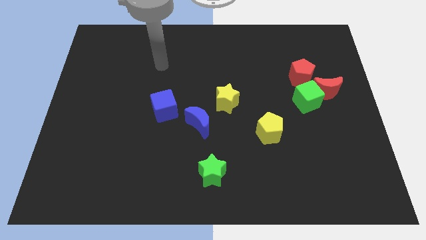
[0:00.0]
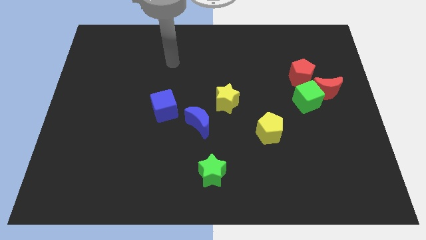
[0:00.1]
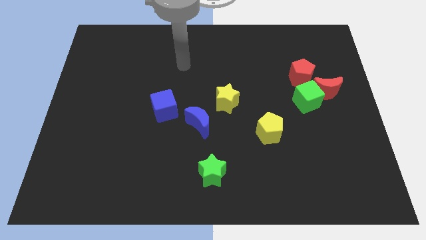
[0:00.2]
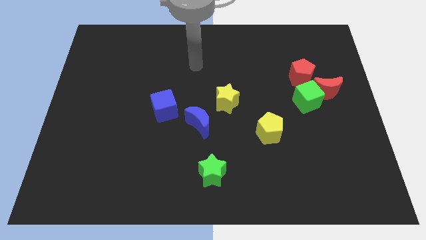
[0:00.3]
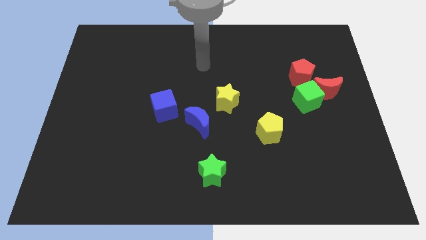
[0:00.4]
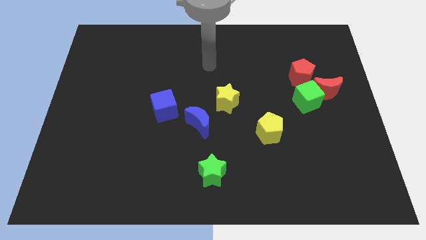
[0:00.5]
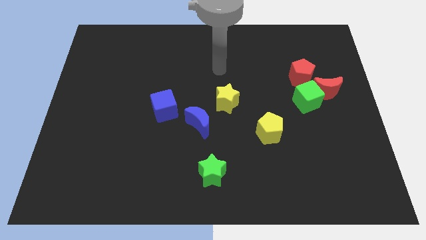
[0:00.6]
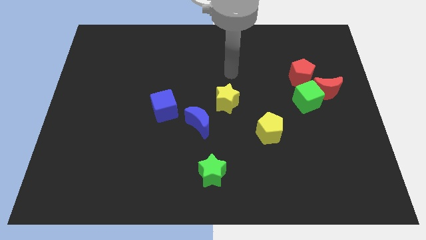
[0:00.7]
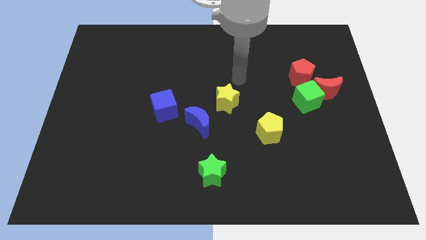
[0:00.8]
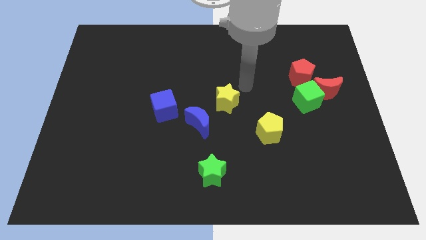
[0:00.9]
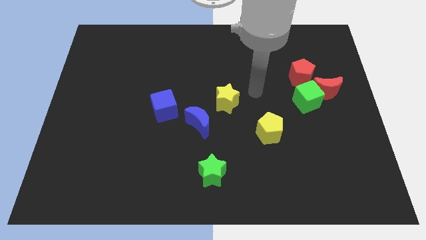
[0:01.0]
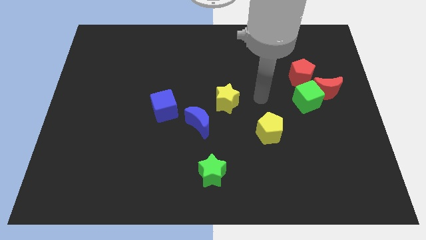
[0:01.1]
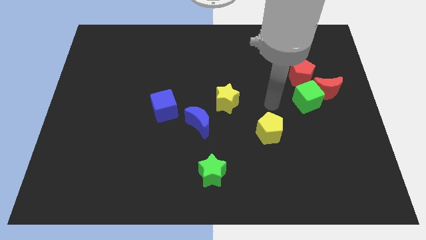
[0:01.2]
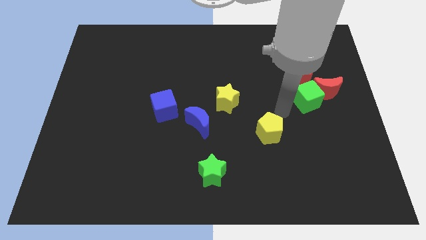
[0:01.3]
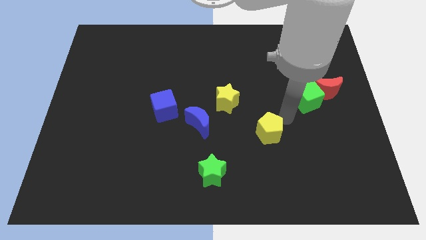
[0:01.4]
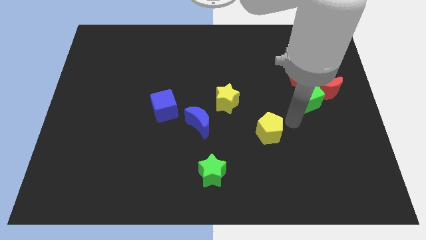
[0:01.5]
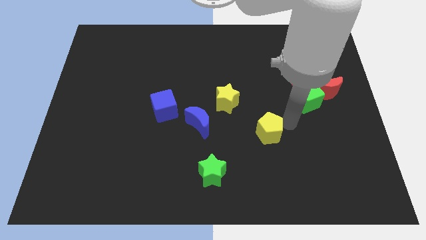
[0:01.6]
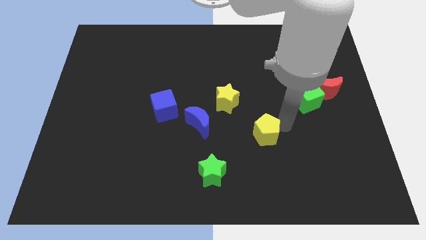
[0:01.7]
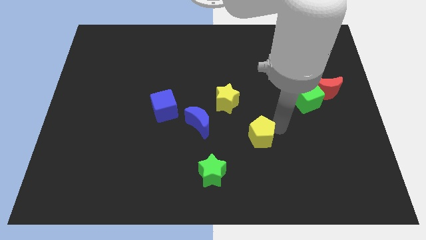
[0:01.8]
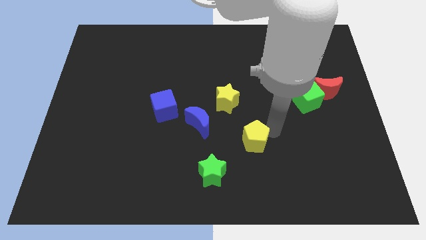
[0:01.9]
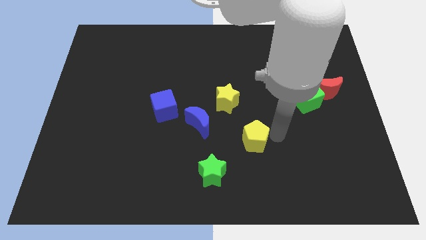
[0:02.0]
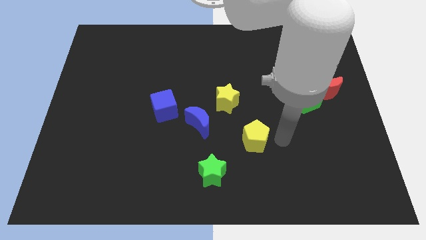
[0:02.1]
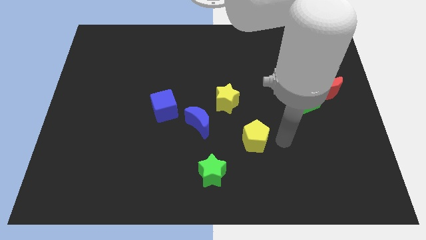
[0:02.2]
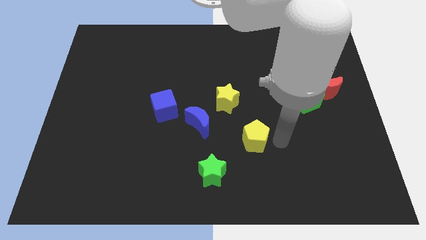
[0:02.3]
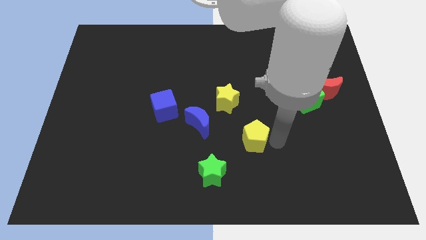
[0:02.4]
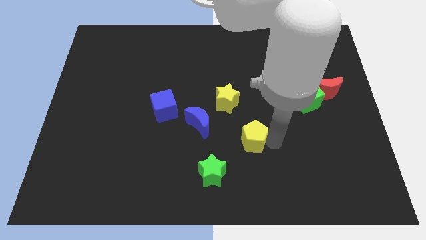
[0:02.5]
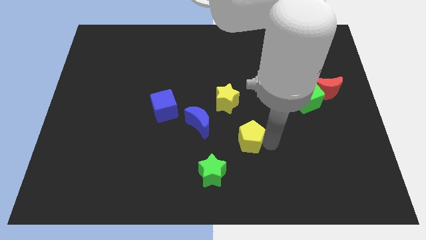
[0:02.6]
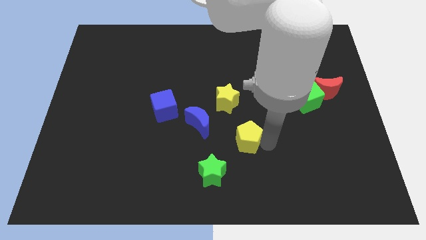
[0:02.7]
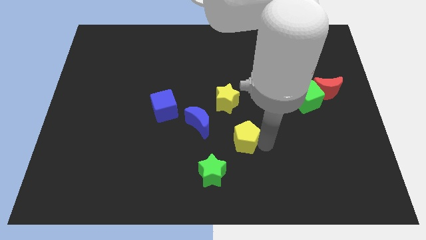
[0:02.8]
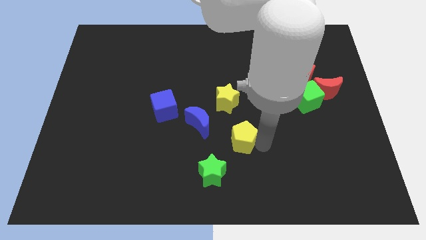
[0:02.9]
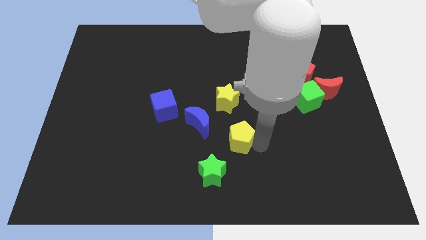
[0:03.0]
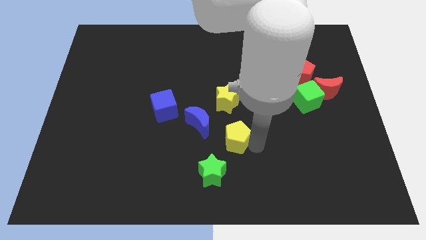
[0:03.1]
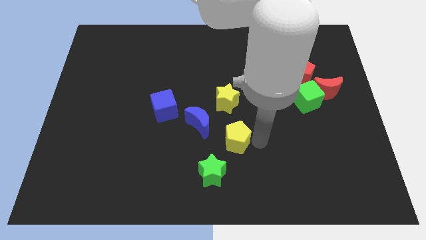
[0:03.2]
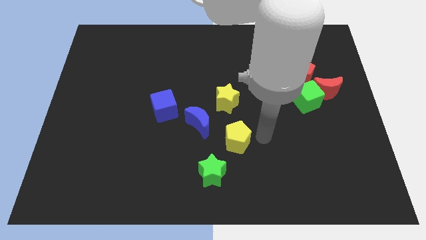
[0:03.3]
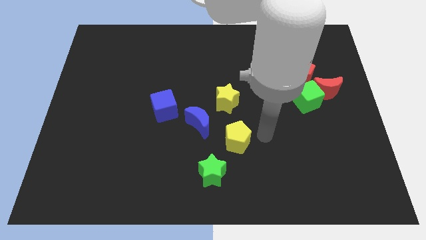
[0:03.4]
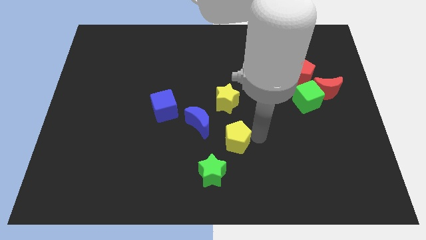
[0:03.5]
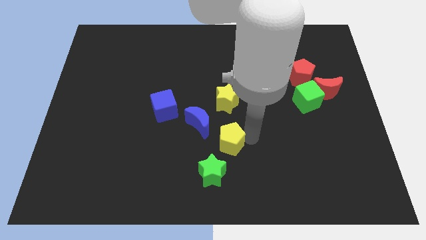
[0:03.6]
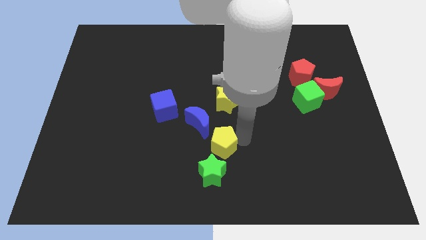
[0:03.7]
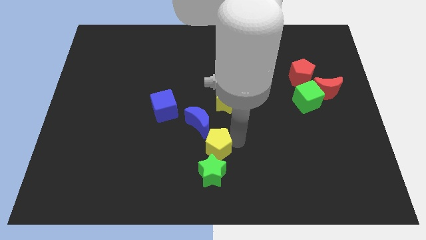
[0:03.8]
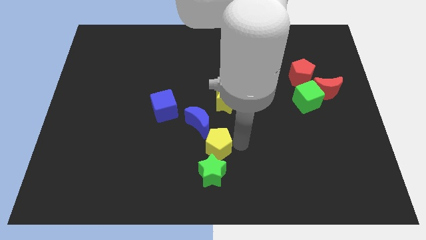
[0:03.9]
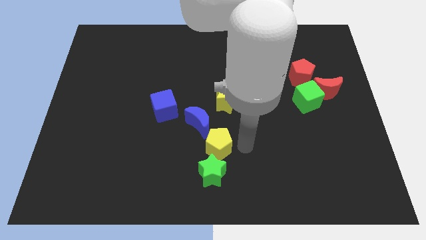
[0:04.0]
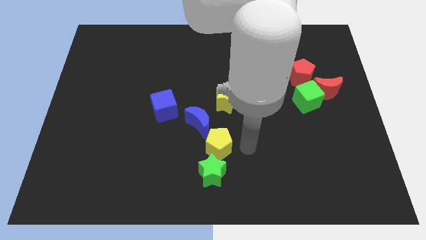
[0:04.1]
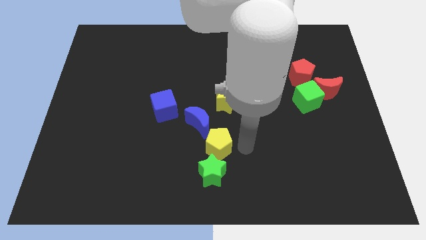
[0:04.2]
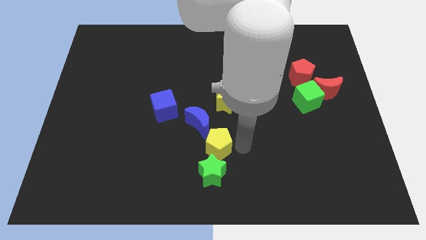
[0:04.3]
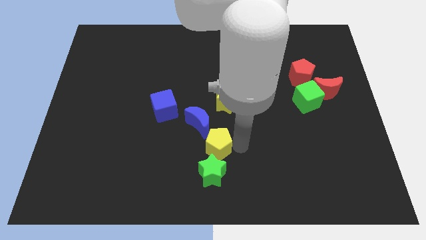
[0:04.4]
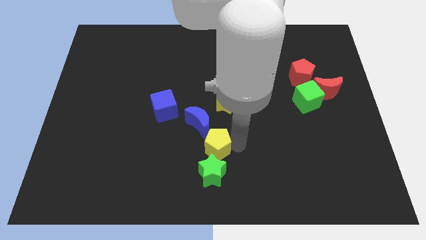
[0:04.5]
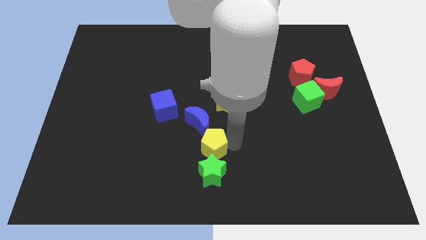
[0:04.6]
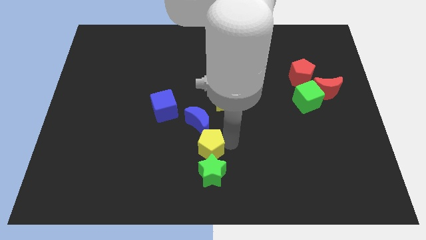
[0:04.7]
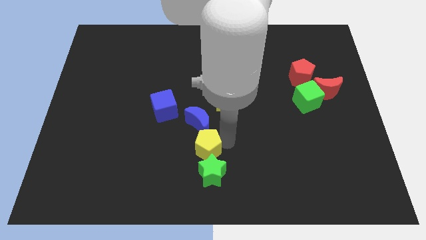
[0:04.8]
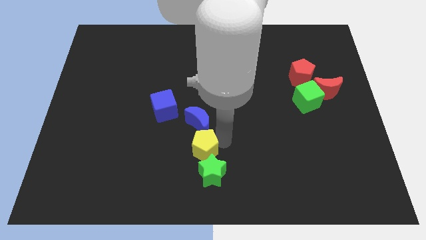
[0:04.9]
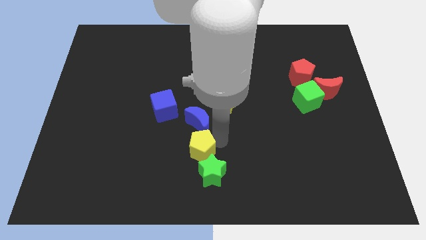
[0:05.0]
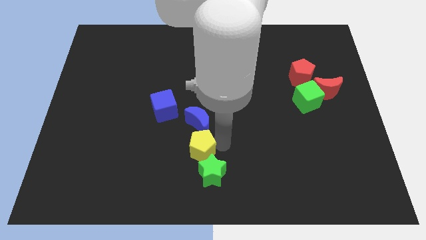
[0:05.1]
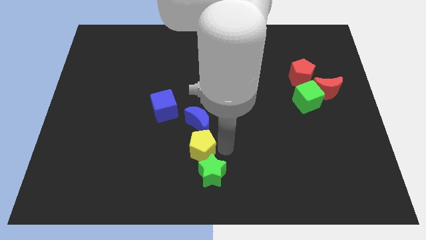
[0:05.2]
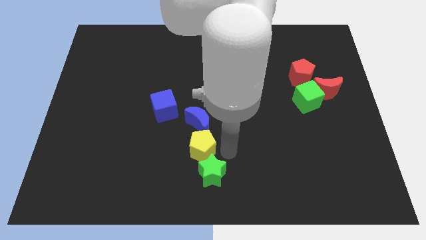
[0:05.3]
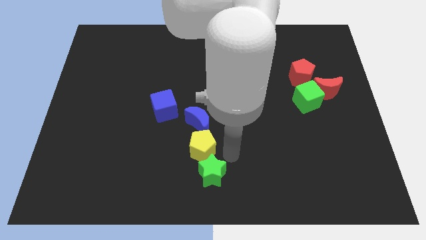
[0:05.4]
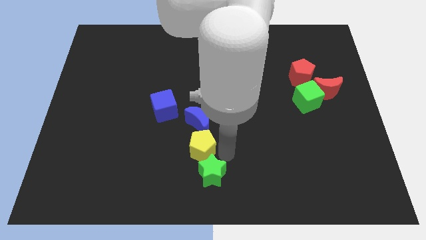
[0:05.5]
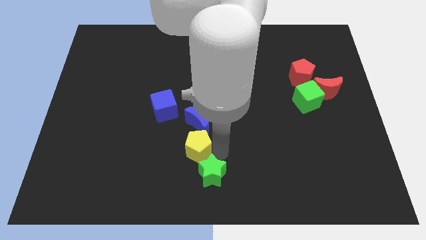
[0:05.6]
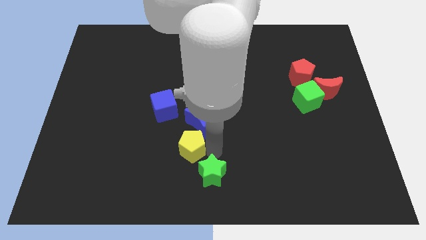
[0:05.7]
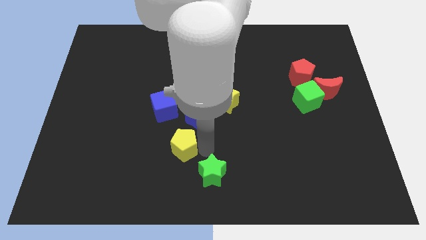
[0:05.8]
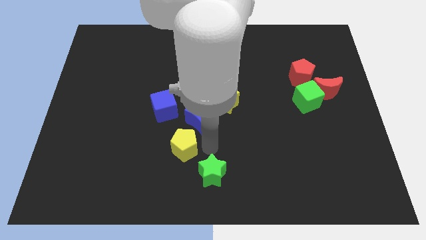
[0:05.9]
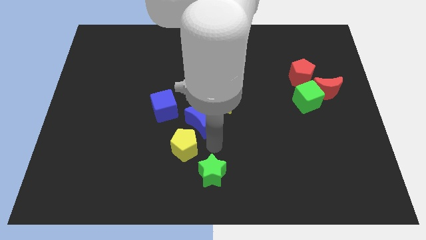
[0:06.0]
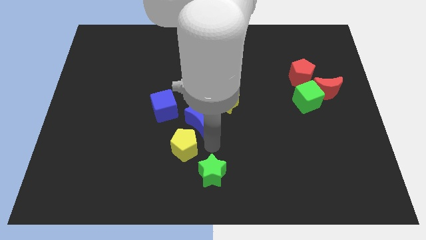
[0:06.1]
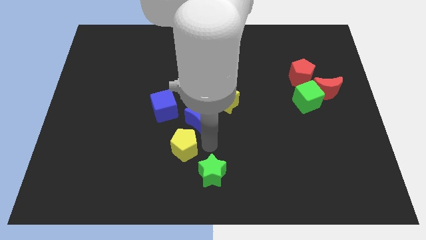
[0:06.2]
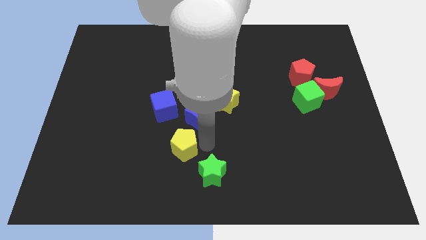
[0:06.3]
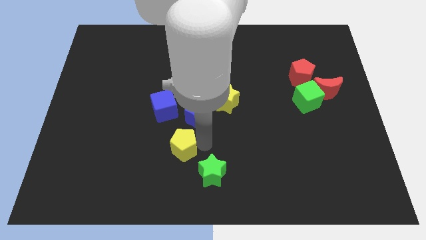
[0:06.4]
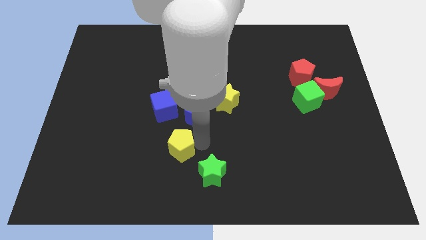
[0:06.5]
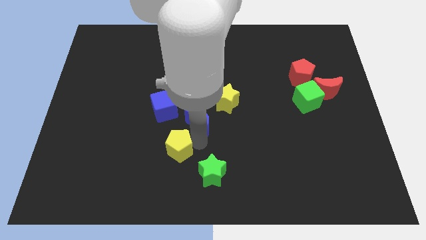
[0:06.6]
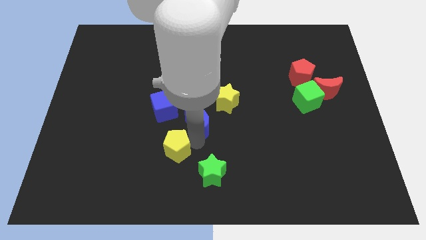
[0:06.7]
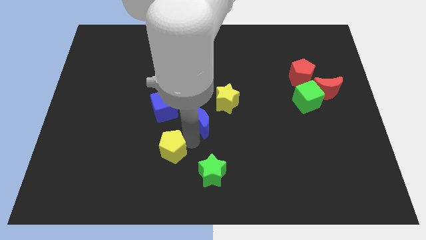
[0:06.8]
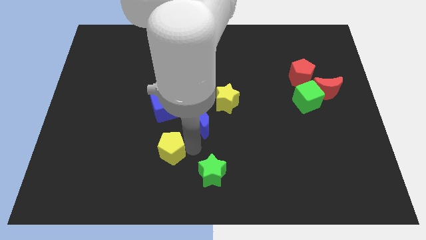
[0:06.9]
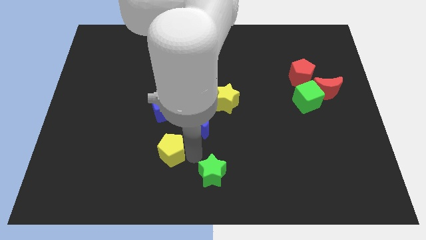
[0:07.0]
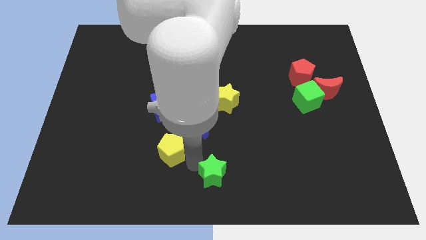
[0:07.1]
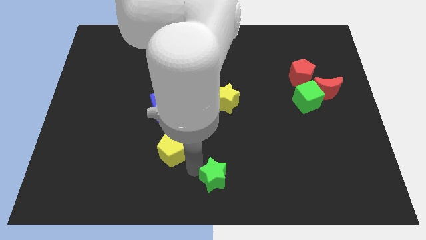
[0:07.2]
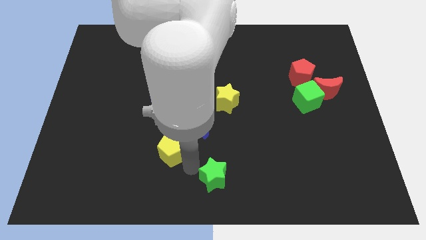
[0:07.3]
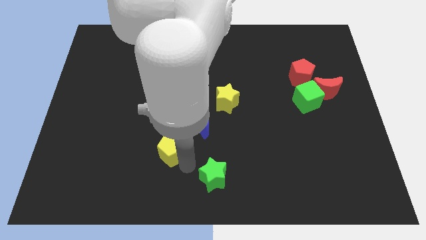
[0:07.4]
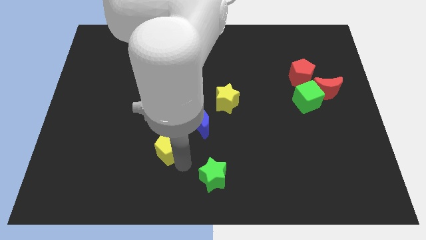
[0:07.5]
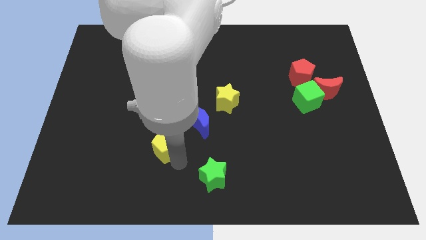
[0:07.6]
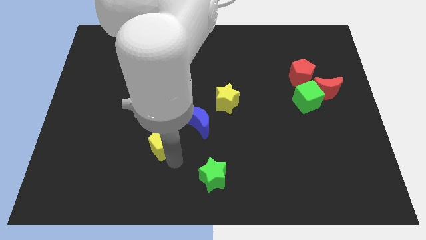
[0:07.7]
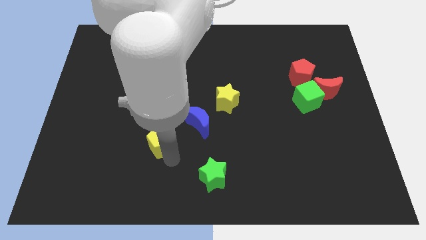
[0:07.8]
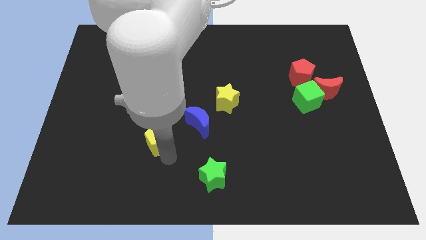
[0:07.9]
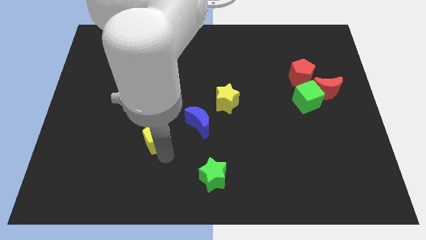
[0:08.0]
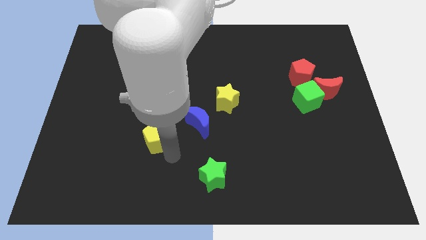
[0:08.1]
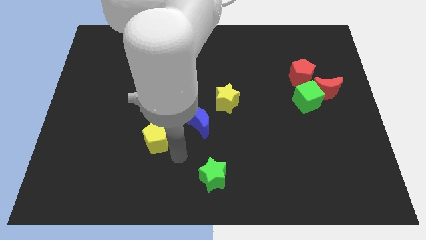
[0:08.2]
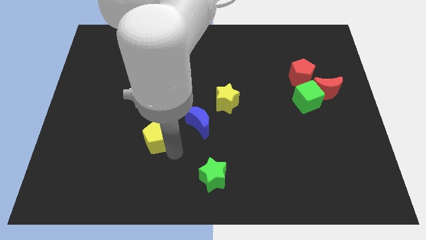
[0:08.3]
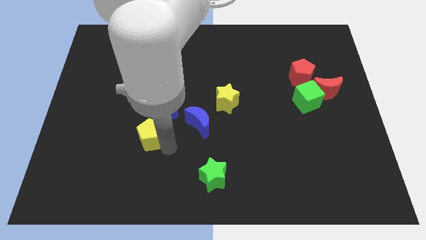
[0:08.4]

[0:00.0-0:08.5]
move the yellow pentagon diagonally down and to the left of the blue cube
